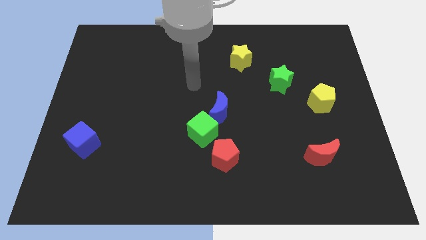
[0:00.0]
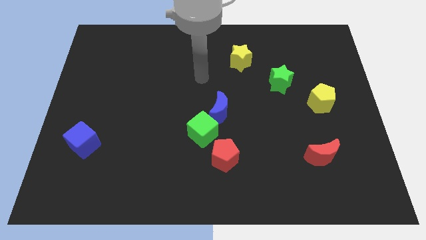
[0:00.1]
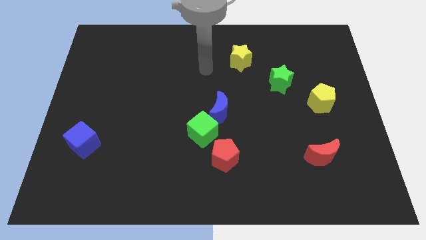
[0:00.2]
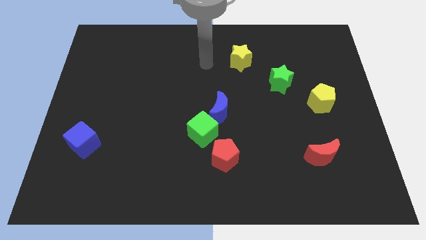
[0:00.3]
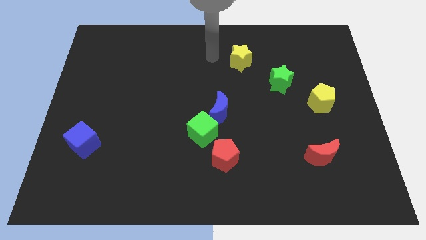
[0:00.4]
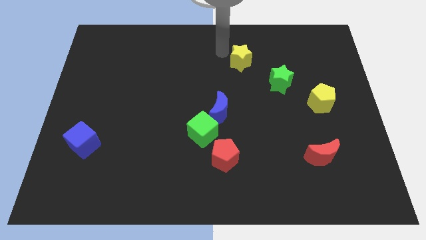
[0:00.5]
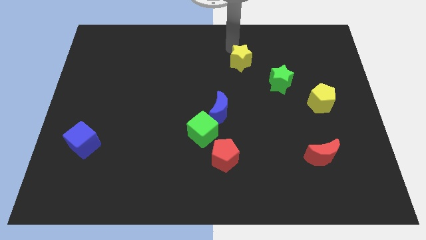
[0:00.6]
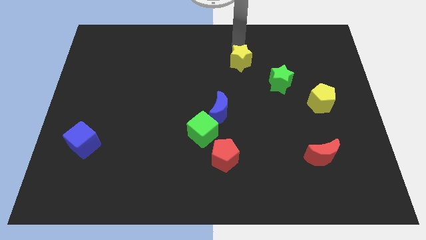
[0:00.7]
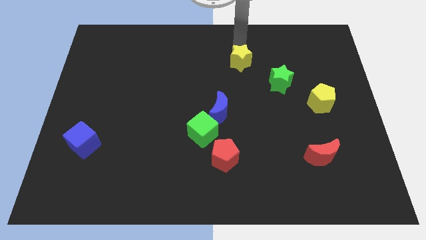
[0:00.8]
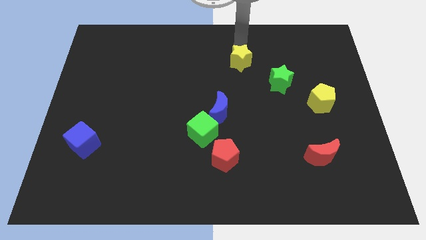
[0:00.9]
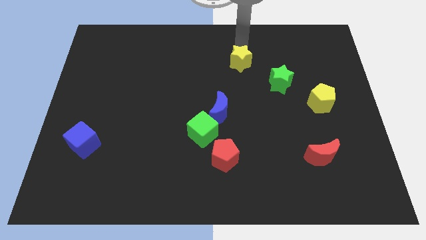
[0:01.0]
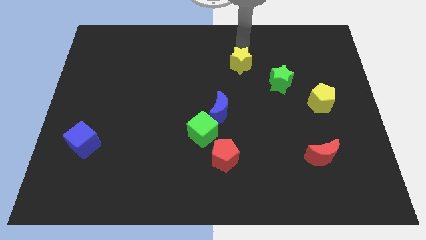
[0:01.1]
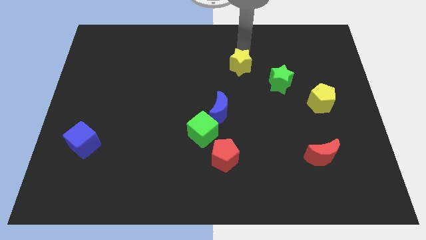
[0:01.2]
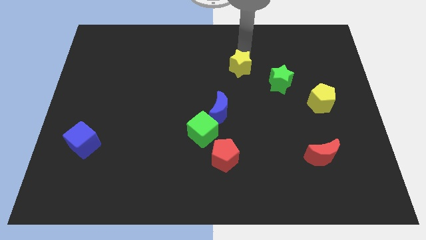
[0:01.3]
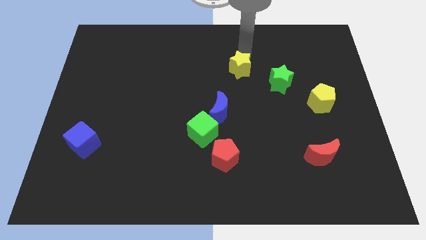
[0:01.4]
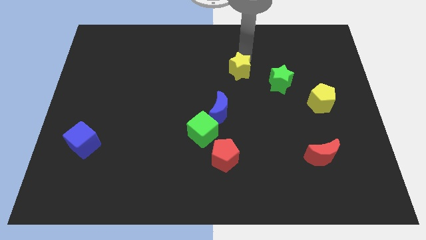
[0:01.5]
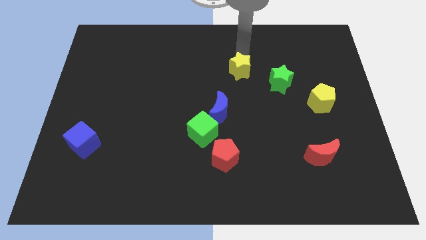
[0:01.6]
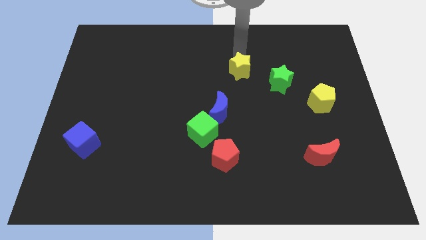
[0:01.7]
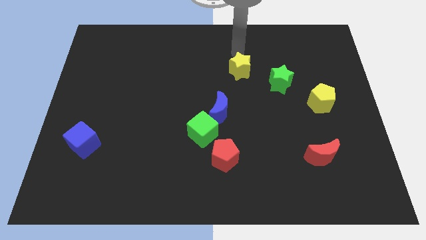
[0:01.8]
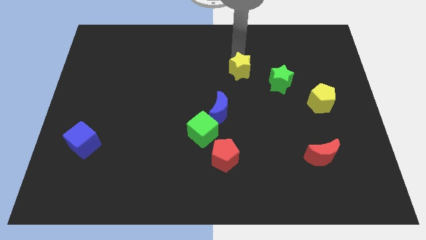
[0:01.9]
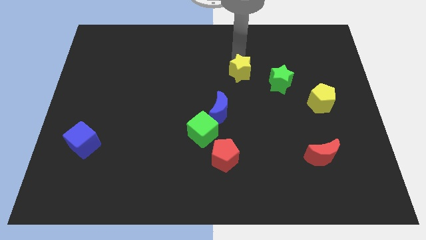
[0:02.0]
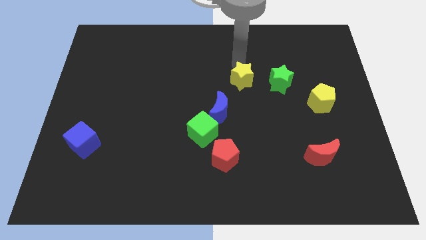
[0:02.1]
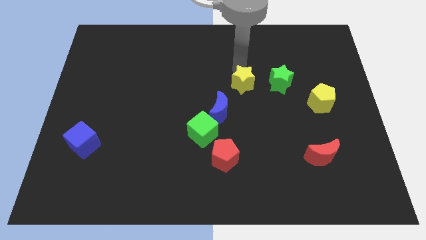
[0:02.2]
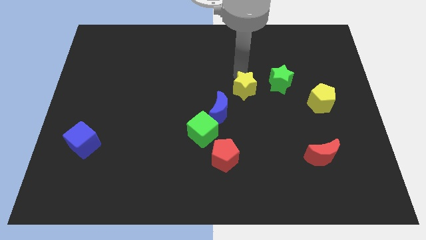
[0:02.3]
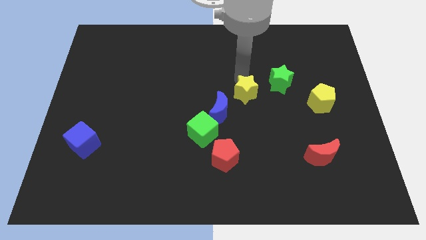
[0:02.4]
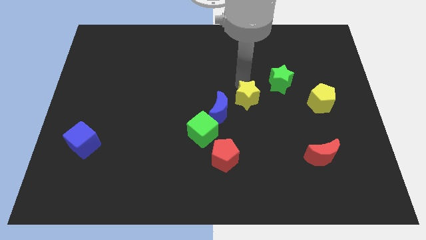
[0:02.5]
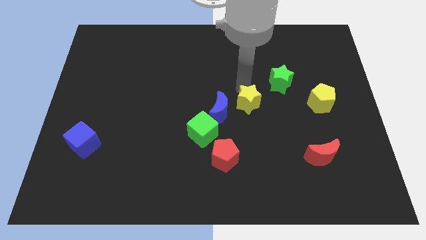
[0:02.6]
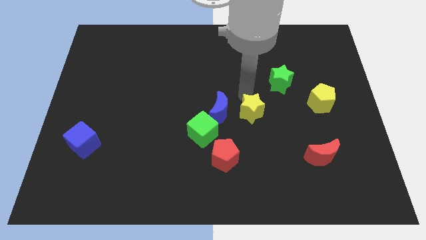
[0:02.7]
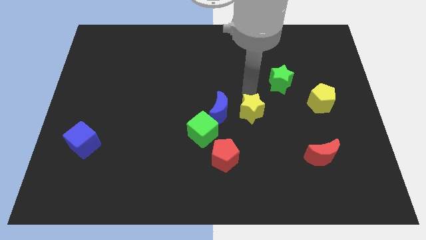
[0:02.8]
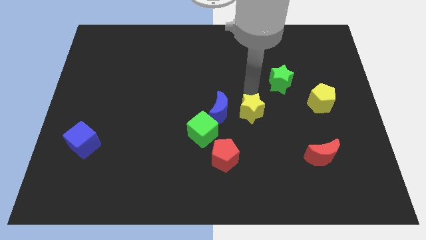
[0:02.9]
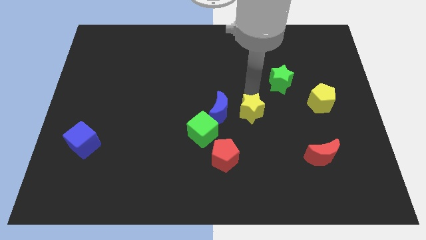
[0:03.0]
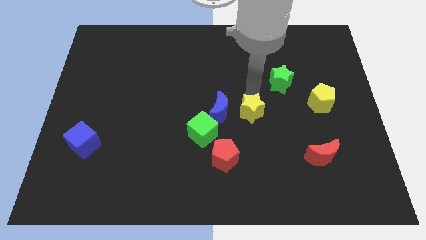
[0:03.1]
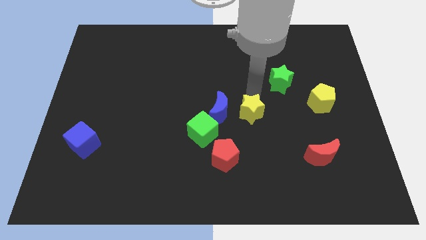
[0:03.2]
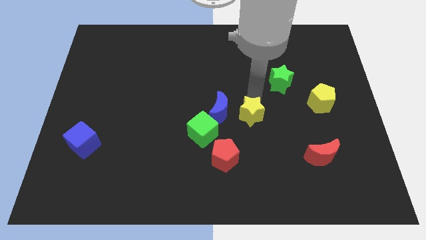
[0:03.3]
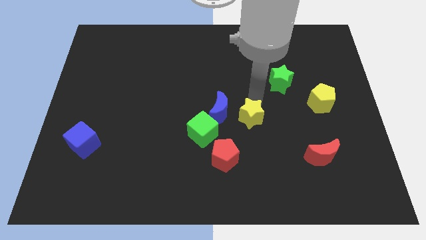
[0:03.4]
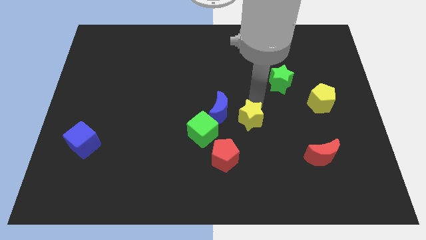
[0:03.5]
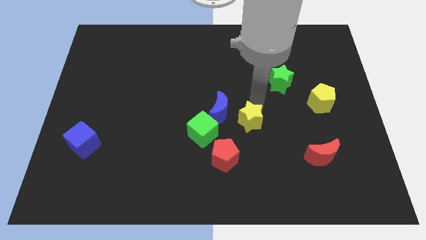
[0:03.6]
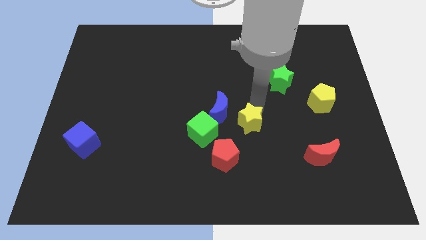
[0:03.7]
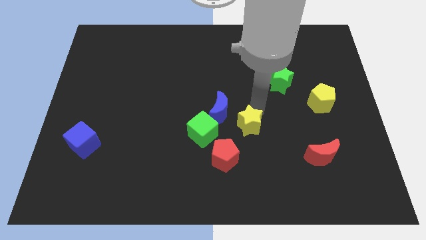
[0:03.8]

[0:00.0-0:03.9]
move the yellow star downwards

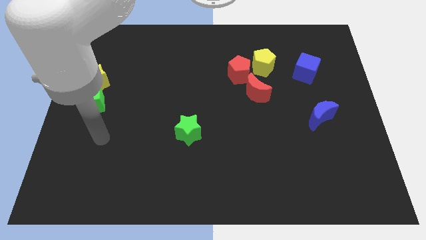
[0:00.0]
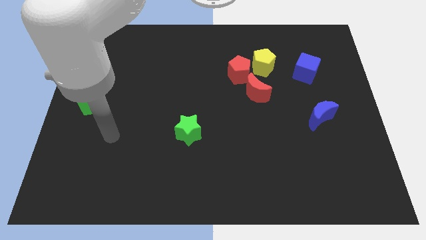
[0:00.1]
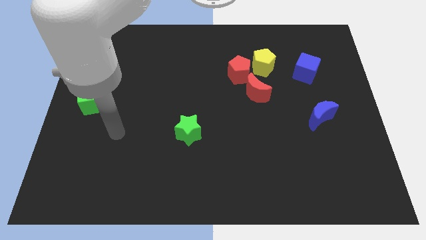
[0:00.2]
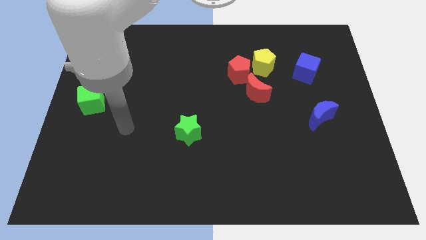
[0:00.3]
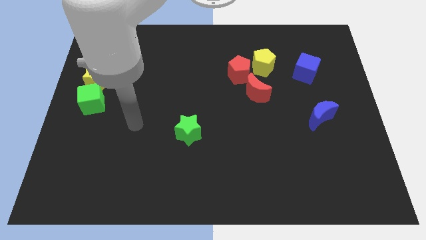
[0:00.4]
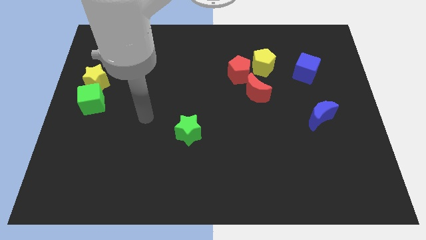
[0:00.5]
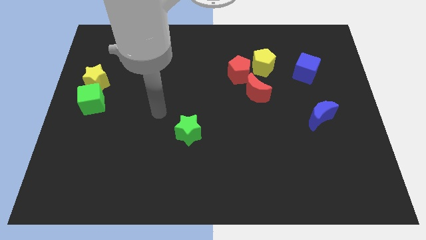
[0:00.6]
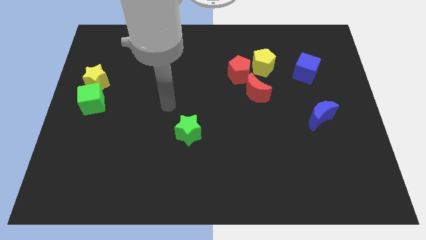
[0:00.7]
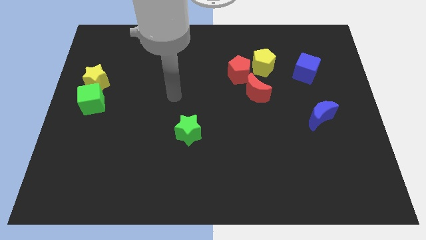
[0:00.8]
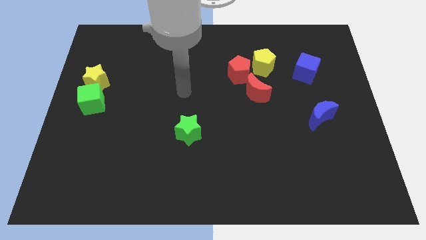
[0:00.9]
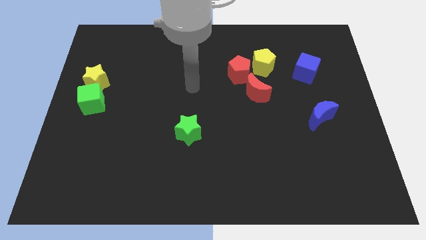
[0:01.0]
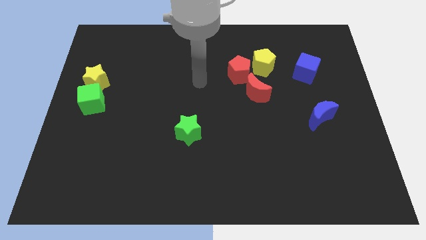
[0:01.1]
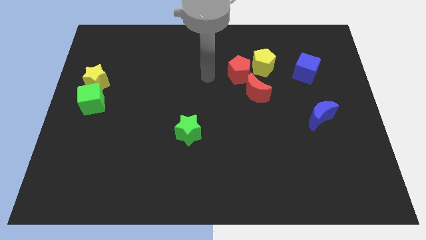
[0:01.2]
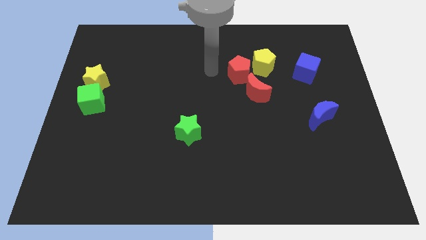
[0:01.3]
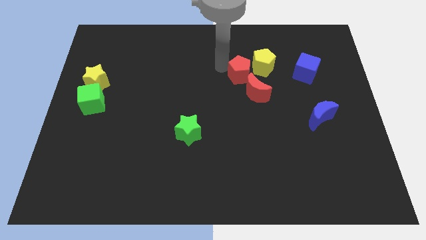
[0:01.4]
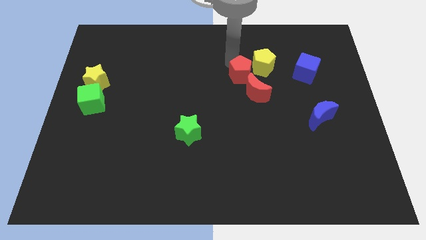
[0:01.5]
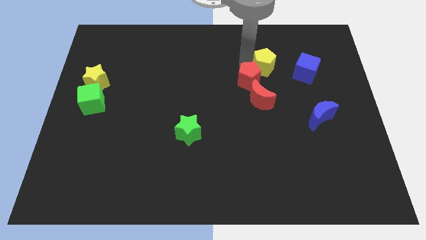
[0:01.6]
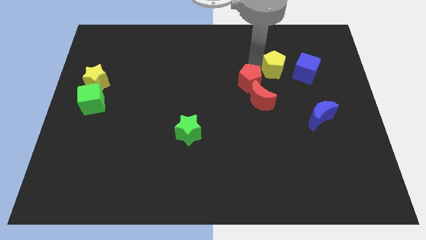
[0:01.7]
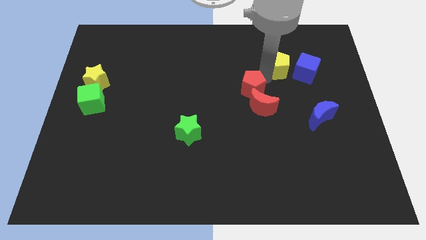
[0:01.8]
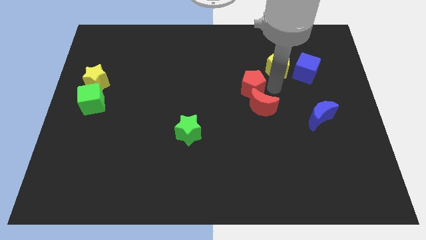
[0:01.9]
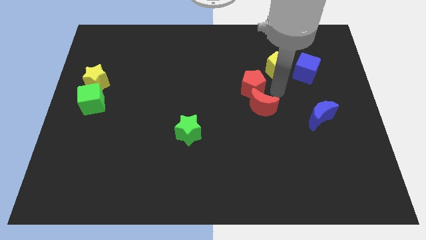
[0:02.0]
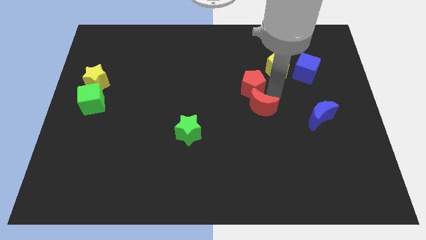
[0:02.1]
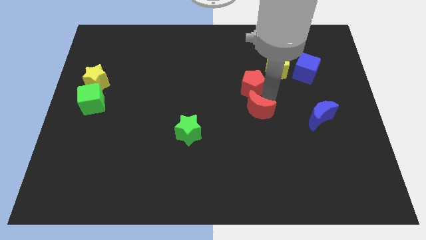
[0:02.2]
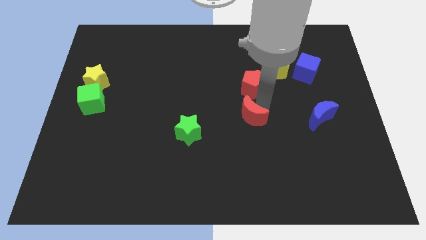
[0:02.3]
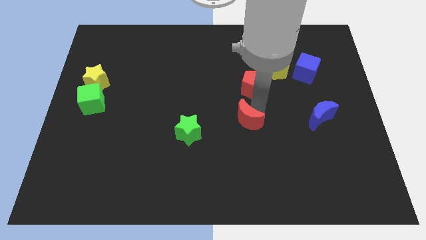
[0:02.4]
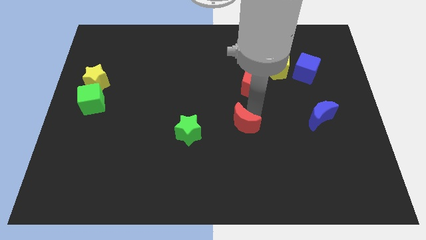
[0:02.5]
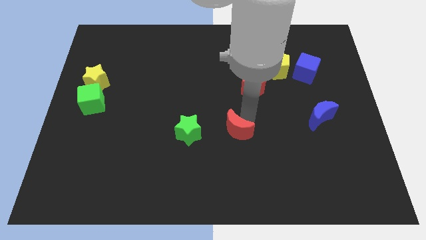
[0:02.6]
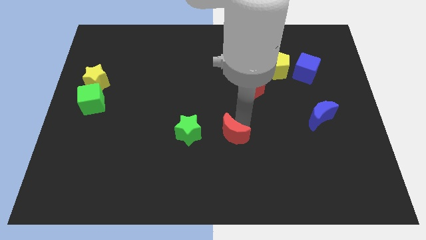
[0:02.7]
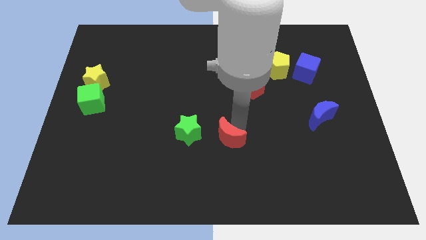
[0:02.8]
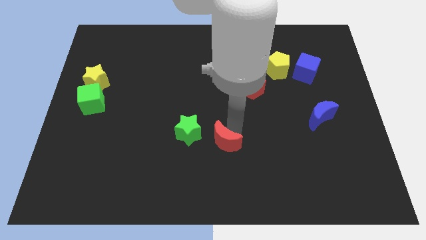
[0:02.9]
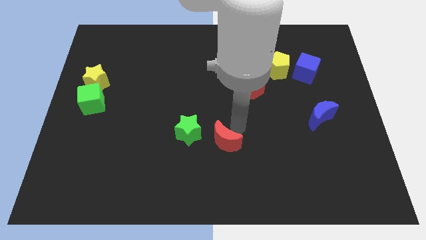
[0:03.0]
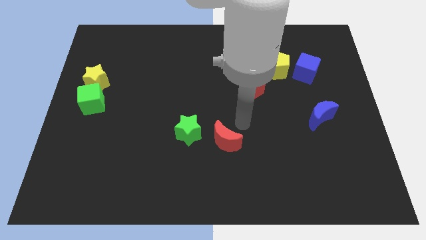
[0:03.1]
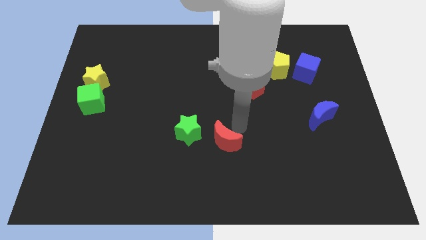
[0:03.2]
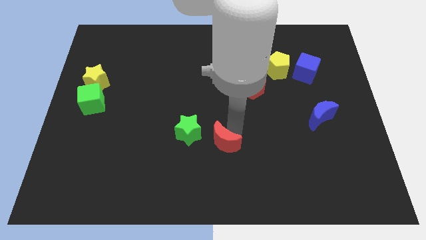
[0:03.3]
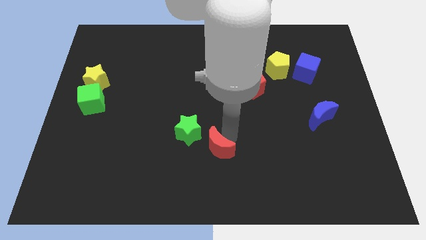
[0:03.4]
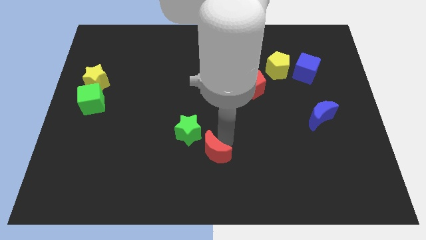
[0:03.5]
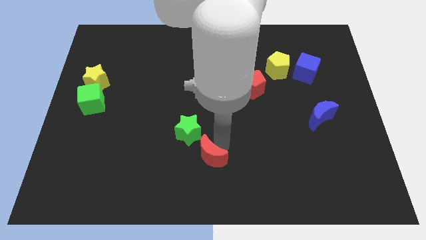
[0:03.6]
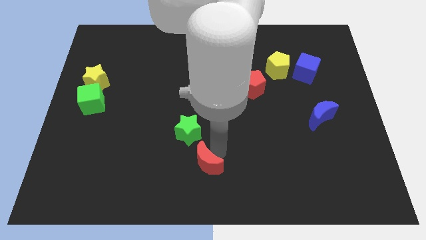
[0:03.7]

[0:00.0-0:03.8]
push the red moon downwards and then left

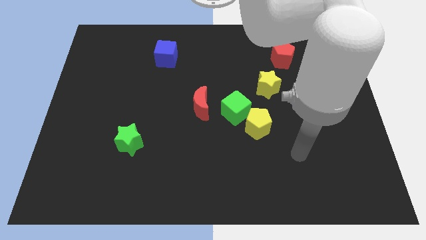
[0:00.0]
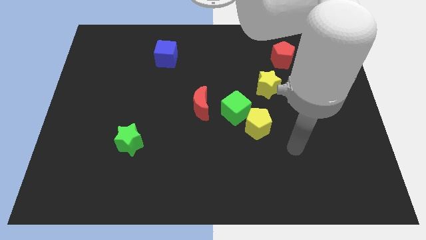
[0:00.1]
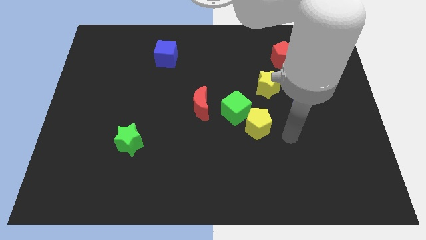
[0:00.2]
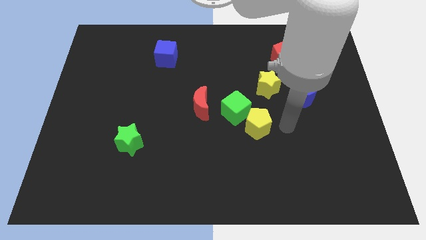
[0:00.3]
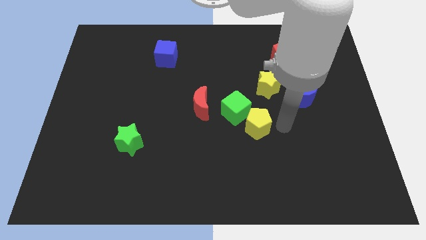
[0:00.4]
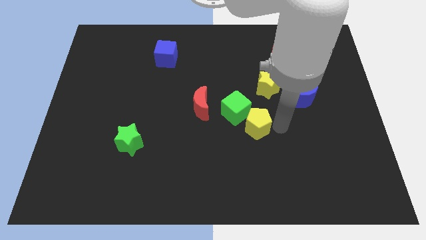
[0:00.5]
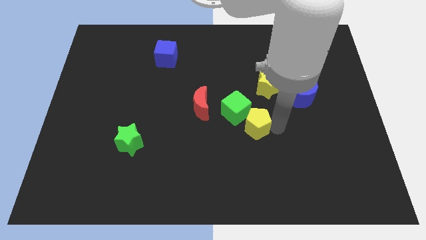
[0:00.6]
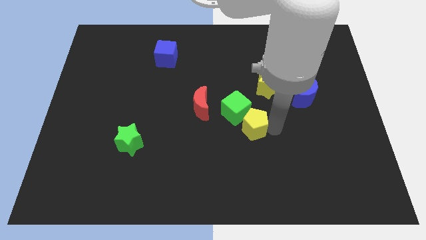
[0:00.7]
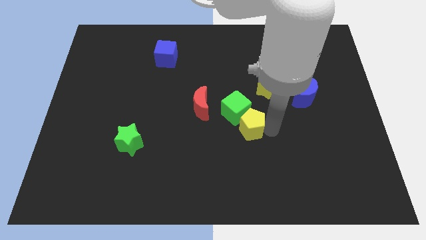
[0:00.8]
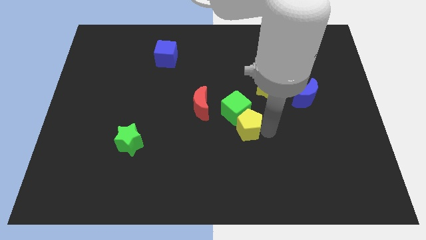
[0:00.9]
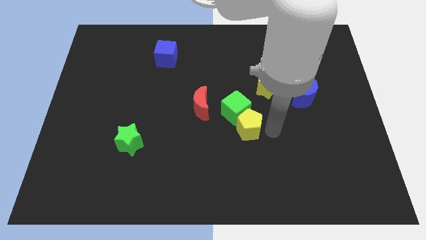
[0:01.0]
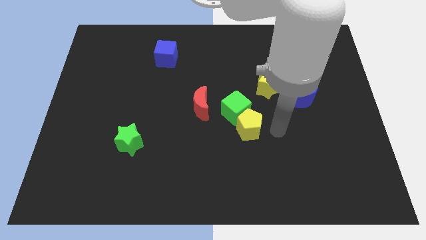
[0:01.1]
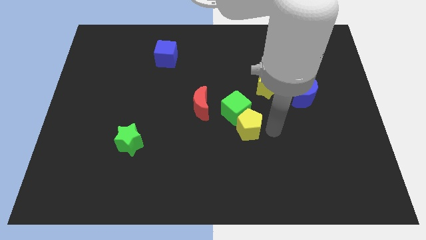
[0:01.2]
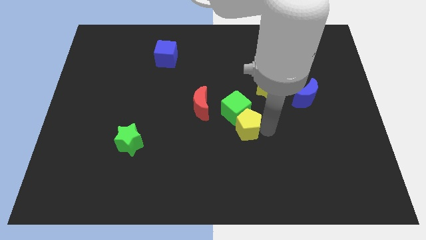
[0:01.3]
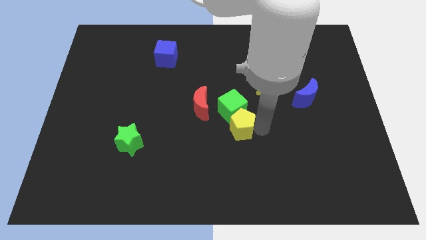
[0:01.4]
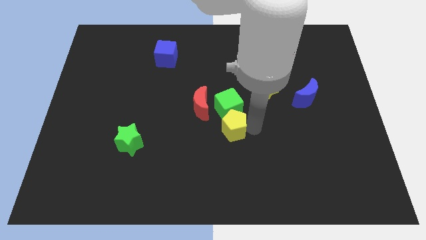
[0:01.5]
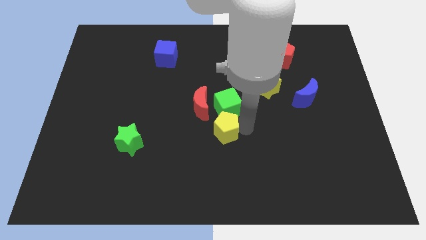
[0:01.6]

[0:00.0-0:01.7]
move the yellow pentagon a bit to the left
